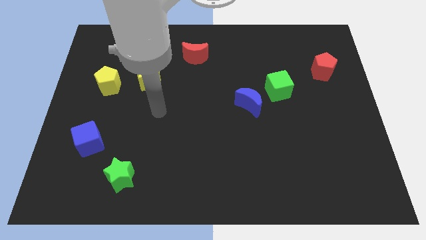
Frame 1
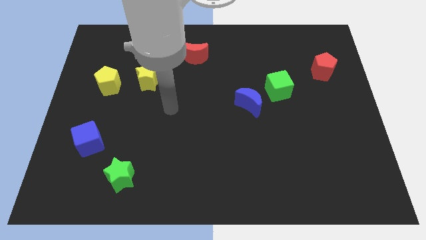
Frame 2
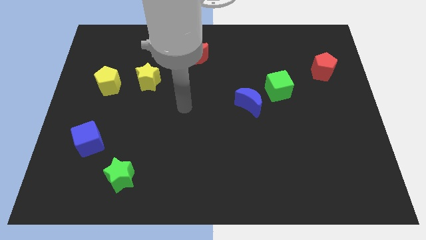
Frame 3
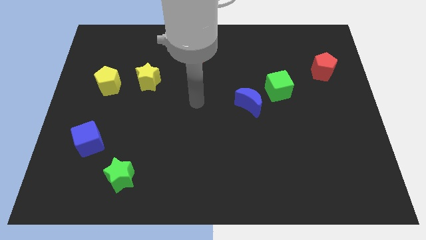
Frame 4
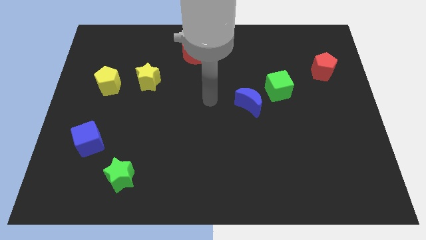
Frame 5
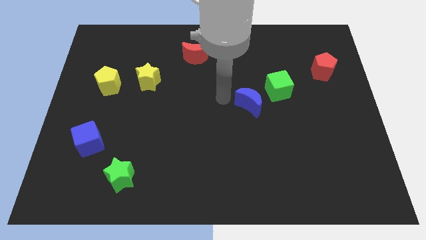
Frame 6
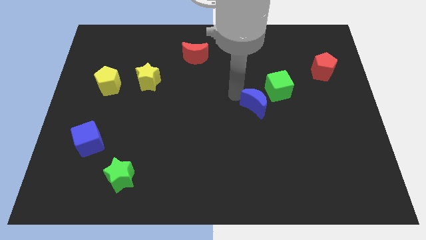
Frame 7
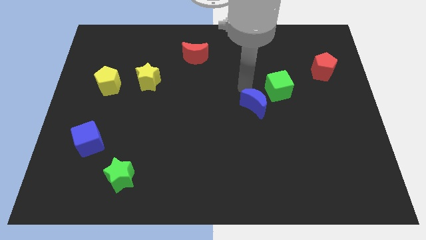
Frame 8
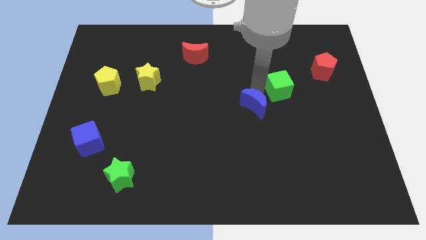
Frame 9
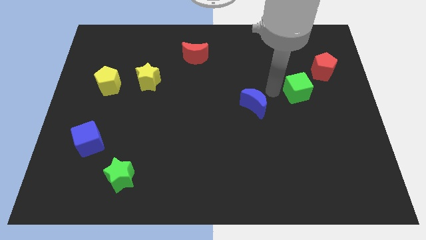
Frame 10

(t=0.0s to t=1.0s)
separate the blue moon from the green cube

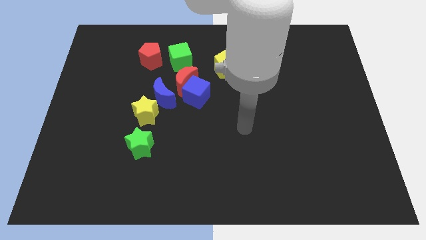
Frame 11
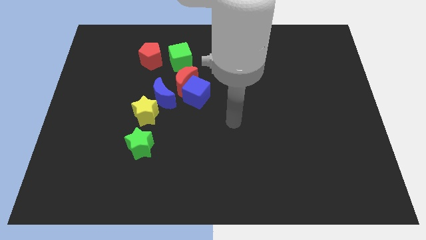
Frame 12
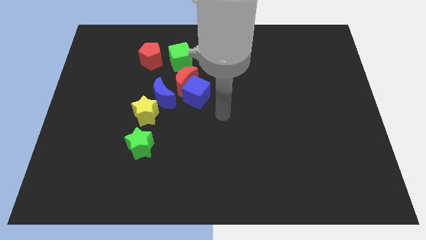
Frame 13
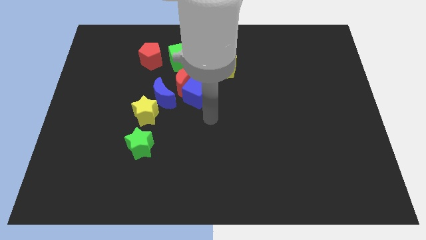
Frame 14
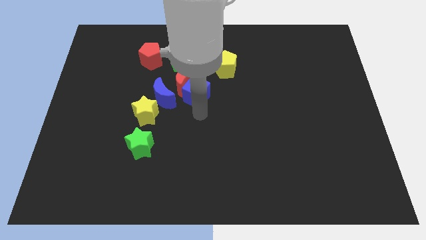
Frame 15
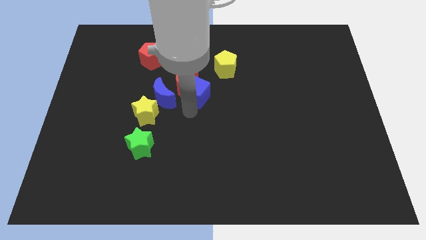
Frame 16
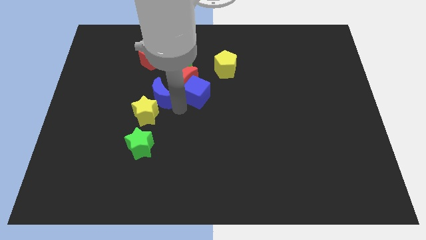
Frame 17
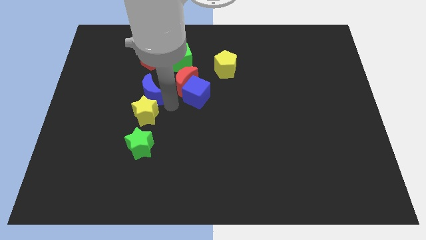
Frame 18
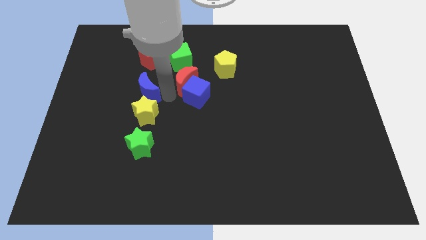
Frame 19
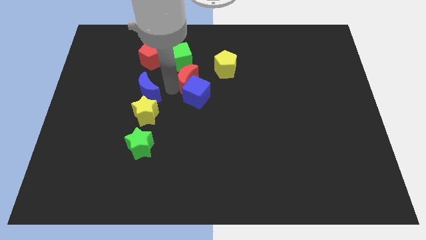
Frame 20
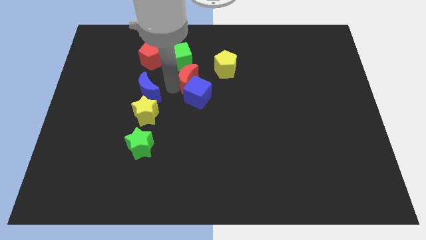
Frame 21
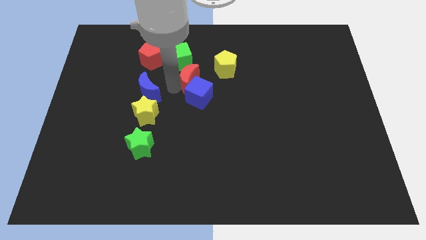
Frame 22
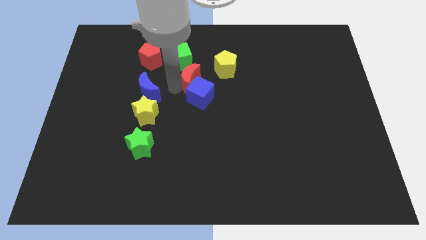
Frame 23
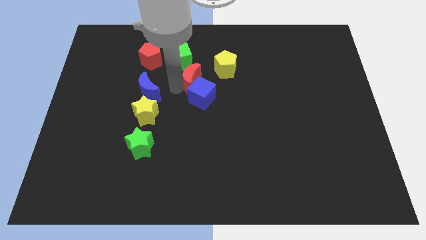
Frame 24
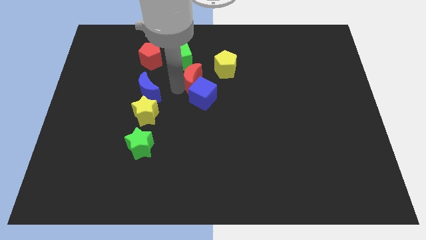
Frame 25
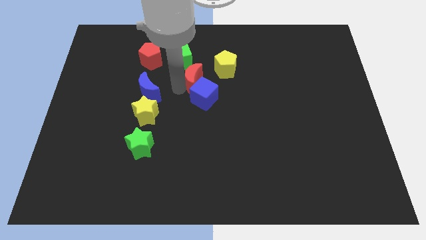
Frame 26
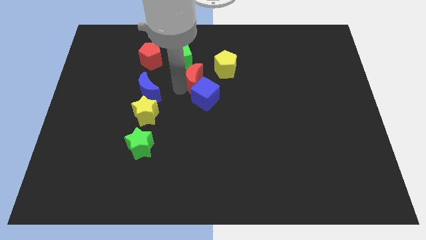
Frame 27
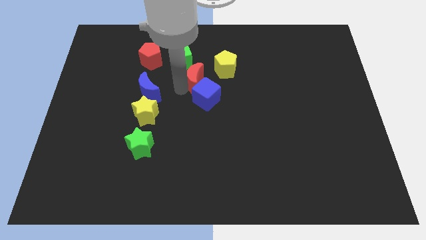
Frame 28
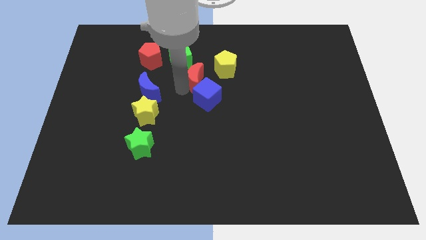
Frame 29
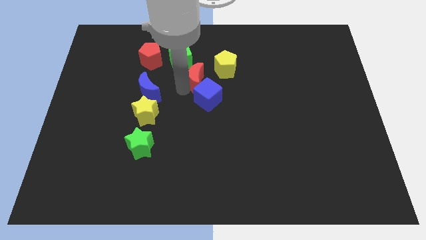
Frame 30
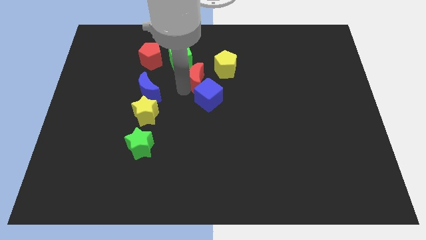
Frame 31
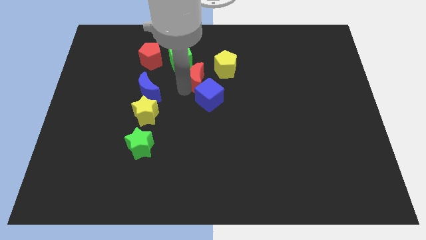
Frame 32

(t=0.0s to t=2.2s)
move the blue cube away from the red moon and blue moon

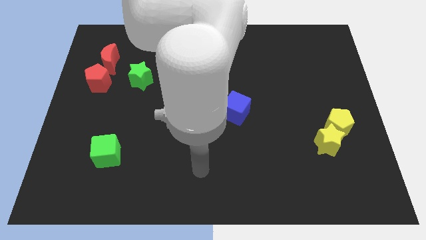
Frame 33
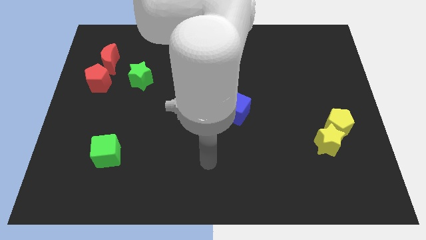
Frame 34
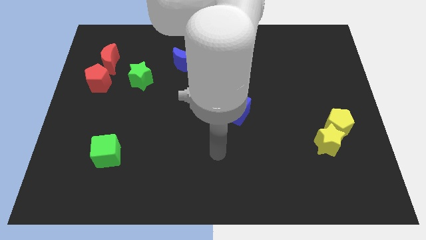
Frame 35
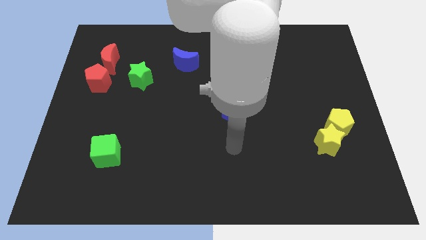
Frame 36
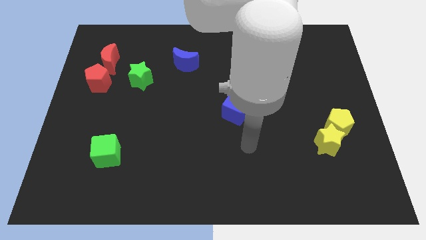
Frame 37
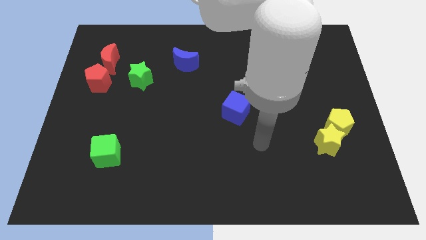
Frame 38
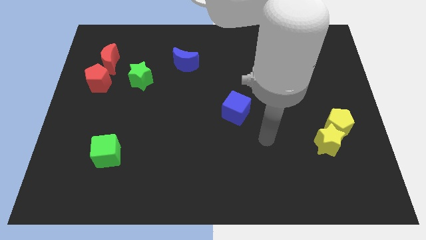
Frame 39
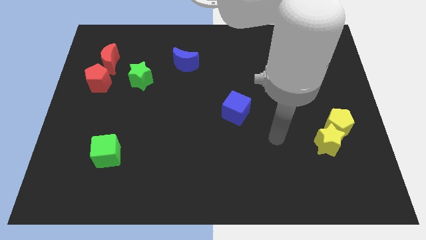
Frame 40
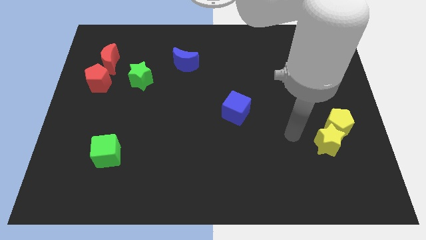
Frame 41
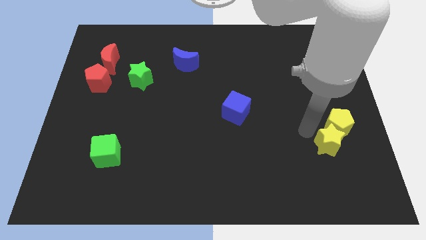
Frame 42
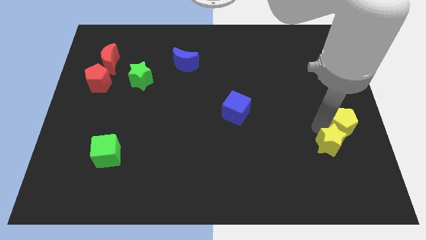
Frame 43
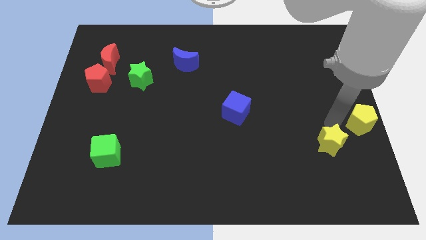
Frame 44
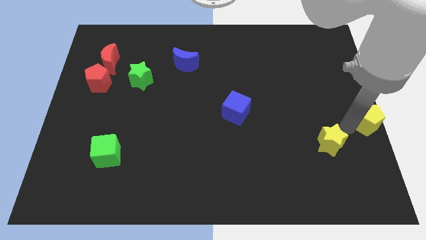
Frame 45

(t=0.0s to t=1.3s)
separate the yellow star from the yellow pentagon

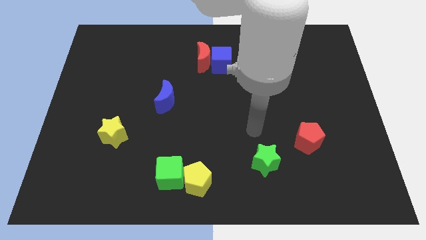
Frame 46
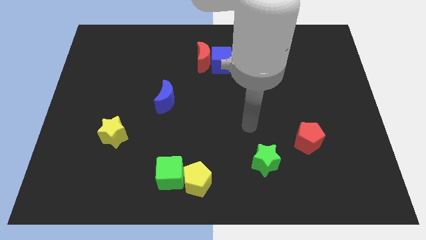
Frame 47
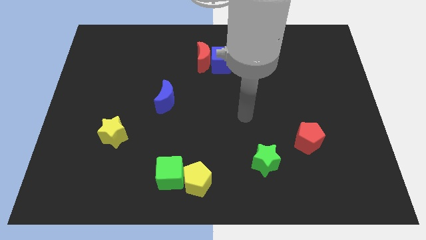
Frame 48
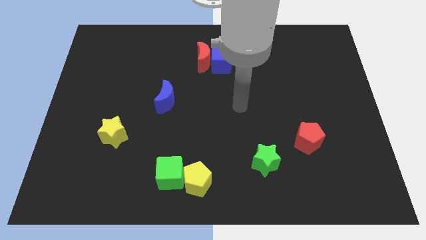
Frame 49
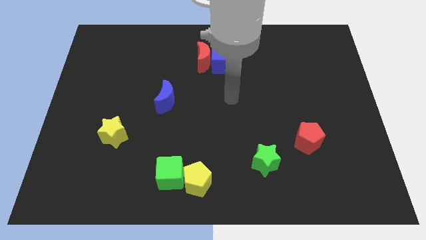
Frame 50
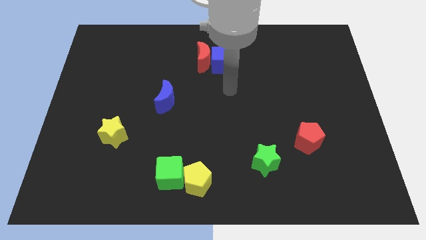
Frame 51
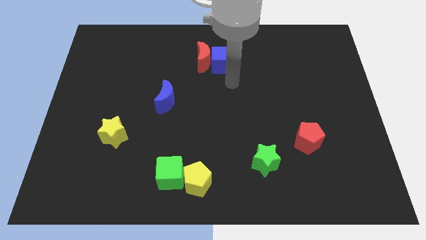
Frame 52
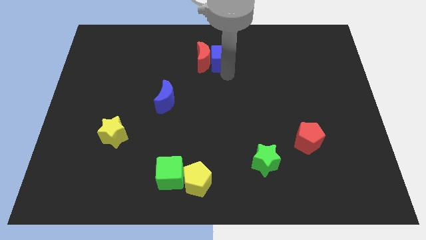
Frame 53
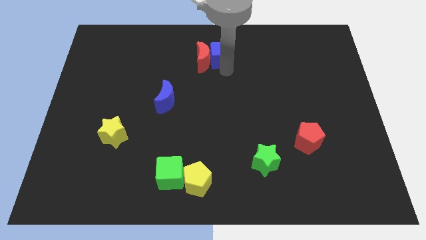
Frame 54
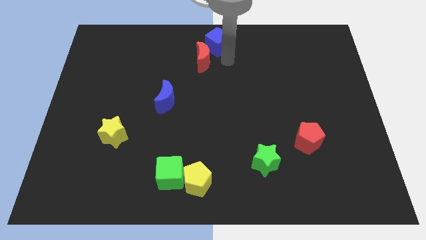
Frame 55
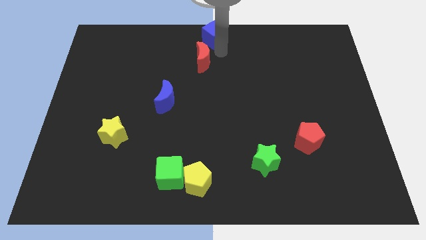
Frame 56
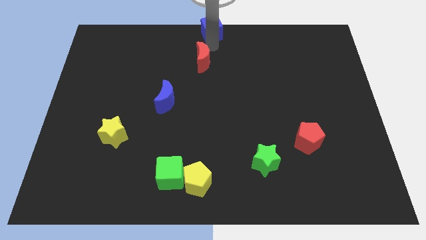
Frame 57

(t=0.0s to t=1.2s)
separate the red moon from the blue cube

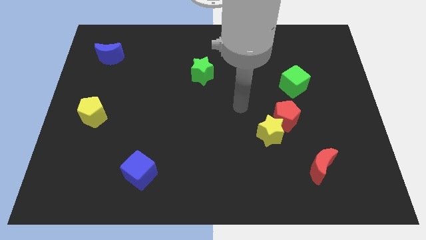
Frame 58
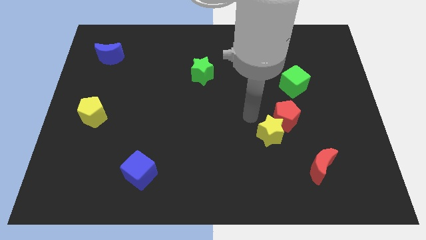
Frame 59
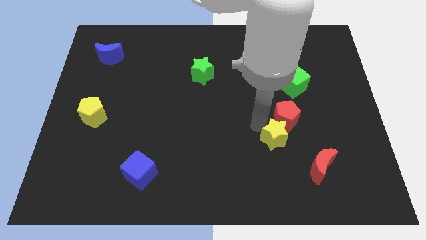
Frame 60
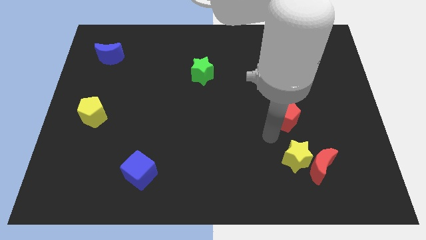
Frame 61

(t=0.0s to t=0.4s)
separate the red pentagon from the yellow star

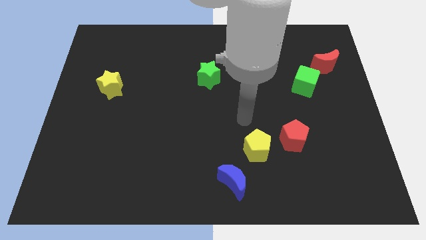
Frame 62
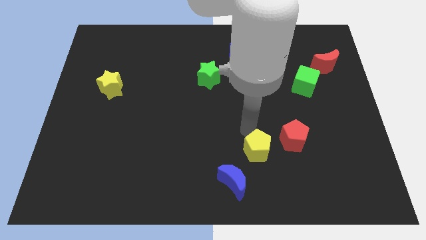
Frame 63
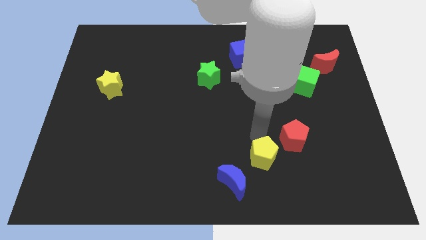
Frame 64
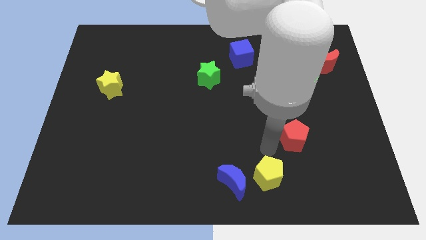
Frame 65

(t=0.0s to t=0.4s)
pull the red pentagon apart from the yellow pentagon

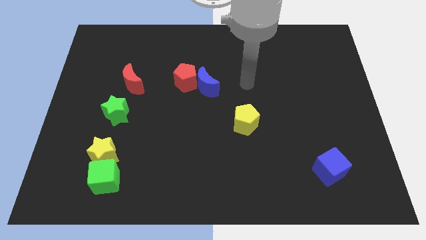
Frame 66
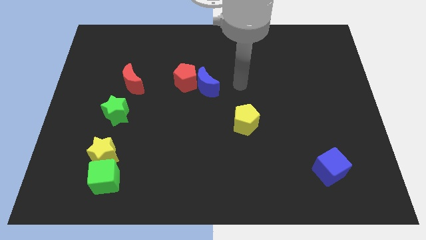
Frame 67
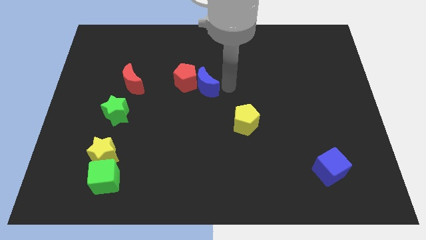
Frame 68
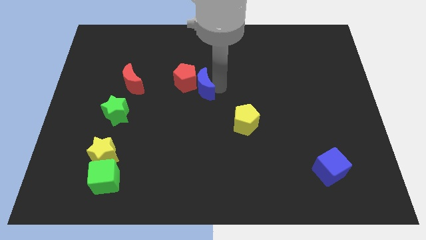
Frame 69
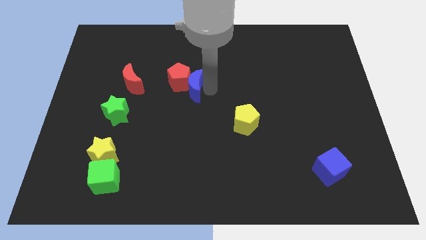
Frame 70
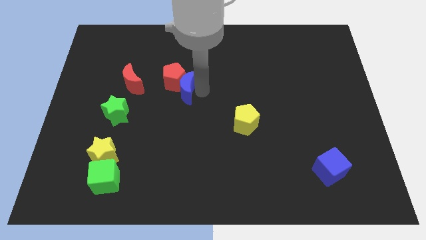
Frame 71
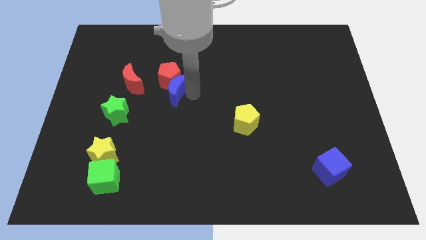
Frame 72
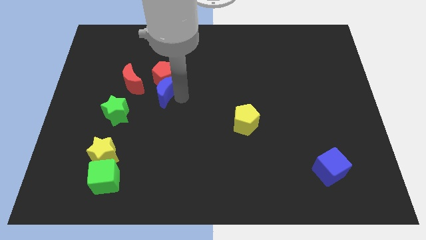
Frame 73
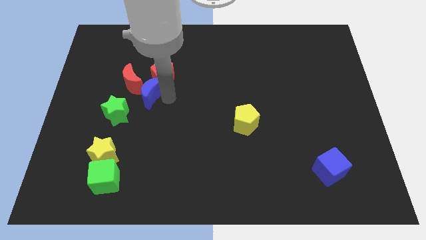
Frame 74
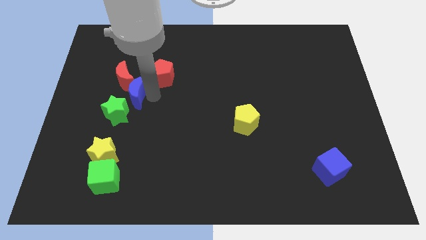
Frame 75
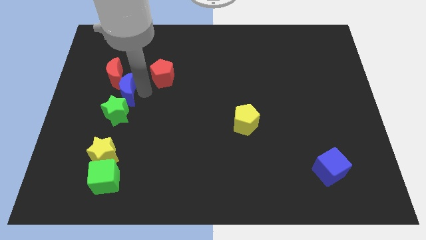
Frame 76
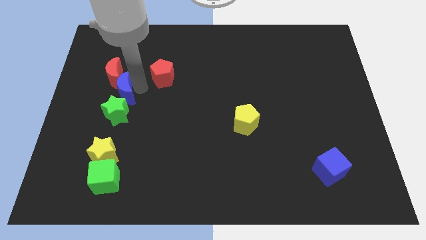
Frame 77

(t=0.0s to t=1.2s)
pull the red pentagon apart from the blue moon

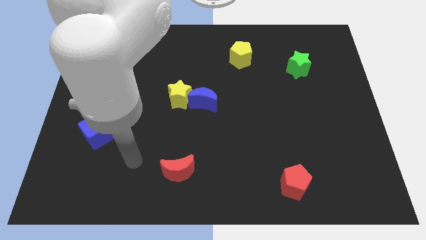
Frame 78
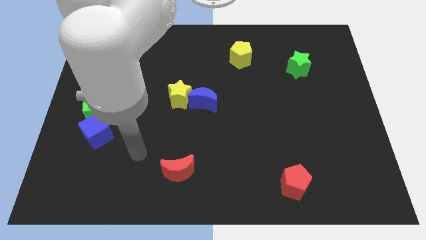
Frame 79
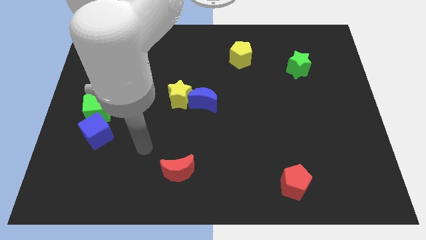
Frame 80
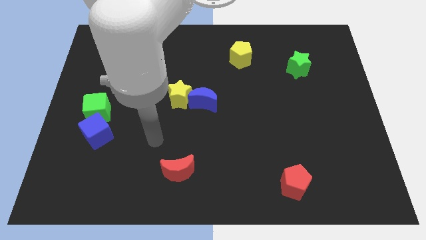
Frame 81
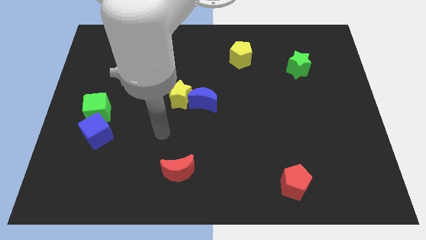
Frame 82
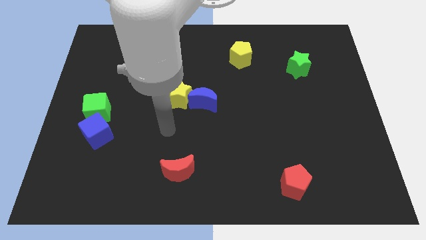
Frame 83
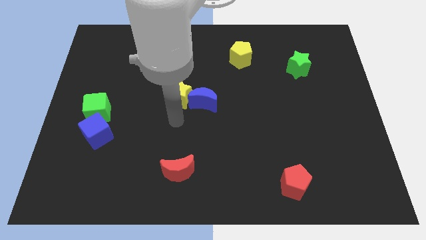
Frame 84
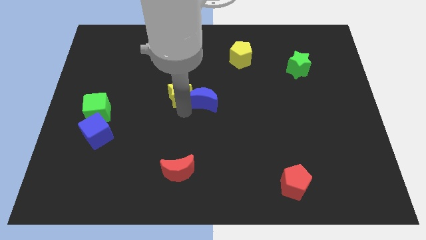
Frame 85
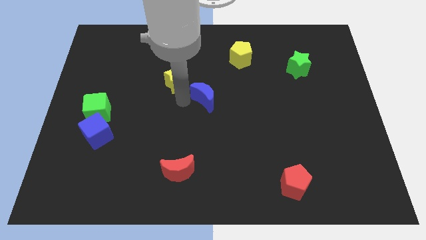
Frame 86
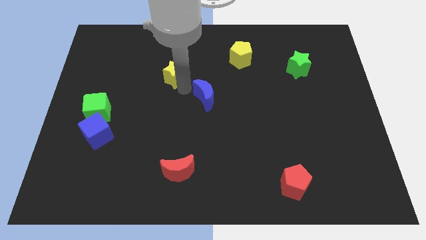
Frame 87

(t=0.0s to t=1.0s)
move the blue moon away from the yellow star

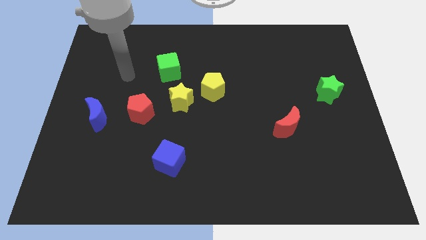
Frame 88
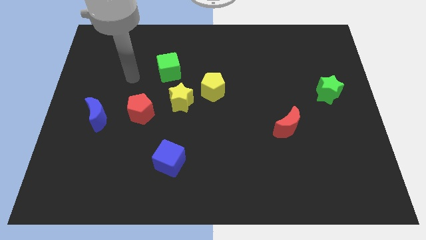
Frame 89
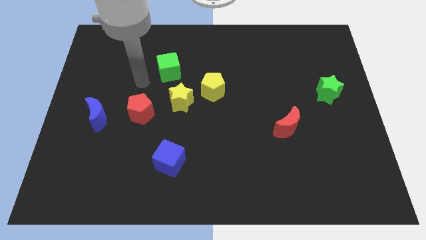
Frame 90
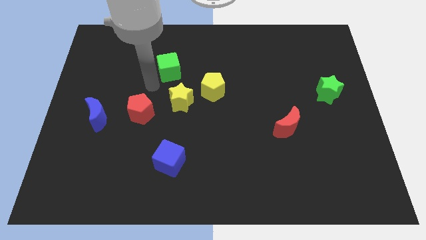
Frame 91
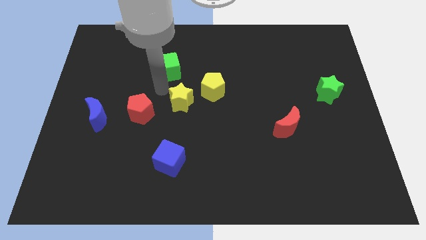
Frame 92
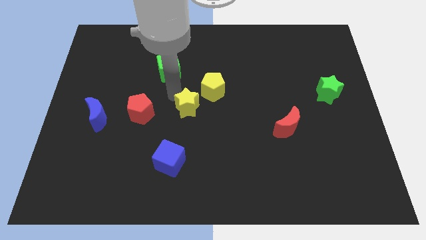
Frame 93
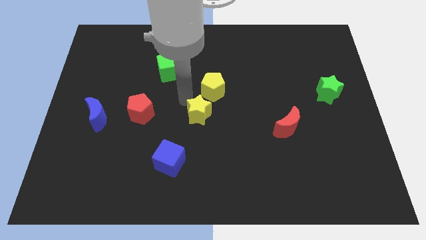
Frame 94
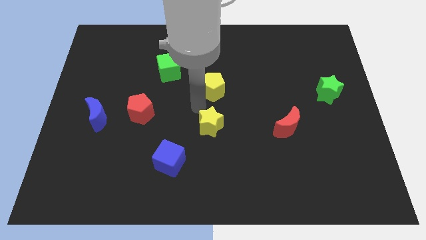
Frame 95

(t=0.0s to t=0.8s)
separate the yellow pentagon from the yellow star
